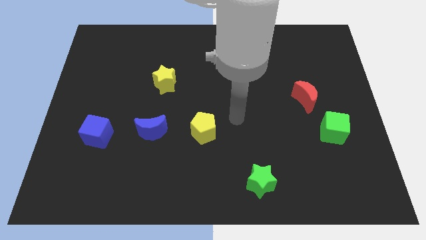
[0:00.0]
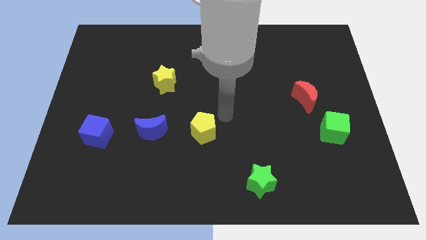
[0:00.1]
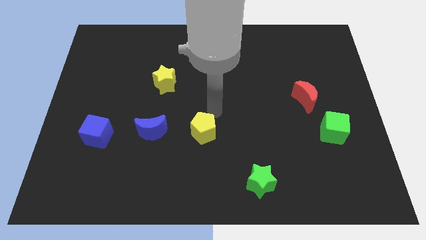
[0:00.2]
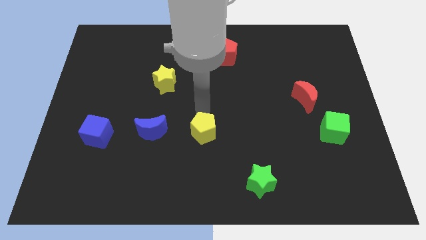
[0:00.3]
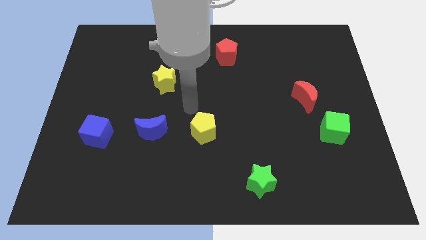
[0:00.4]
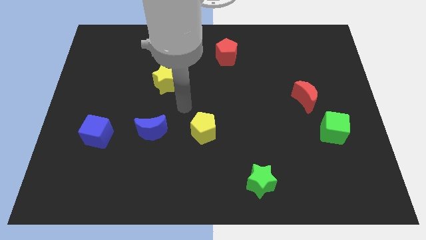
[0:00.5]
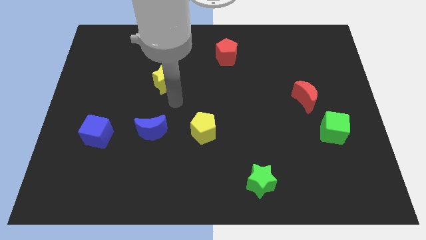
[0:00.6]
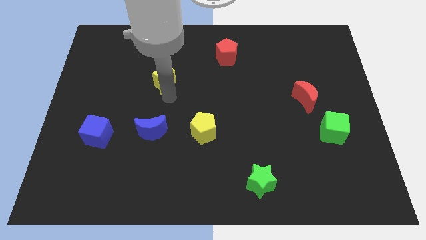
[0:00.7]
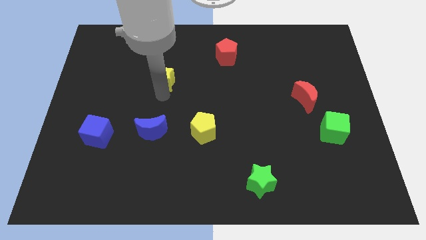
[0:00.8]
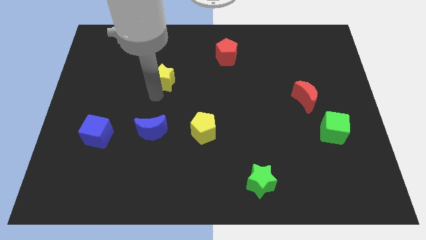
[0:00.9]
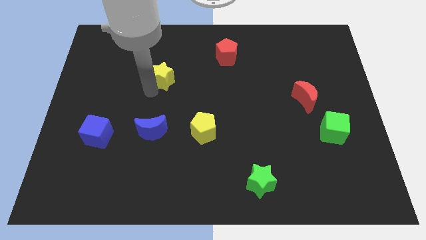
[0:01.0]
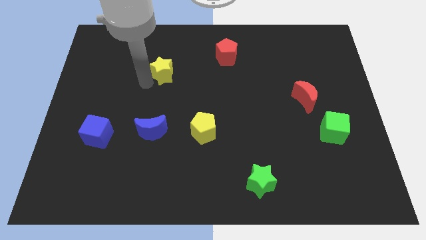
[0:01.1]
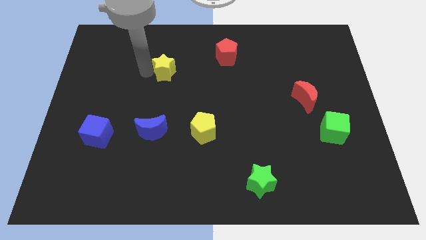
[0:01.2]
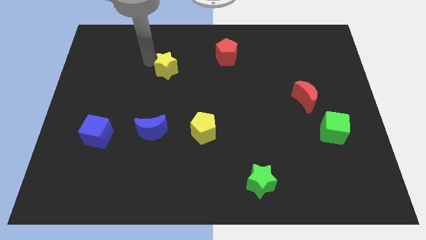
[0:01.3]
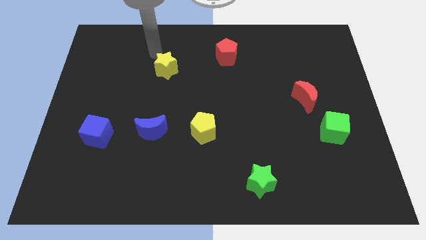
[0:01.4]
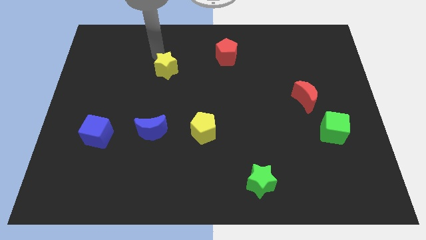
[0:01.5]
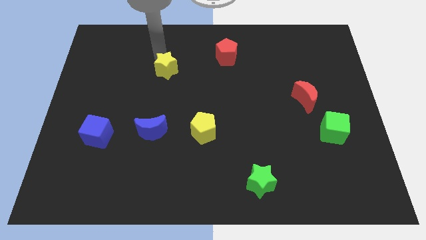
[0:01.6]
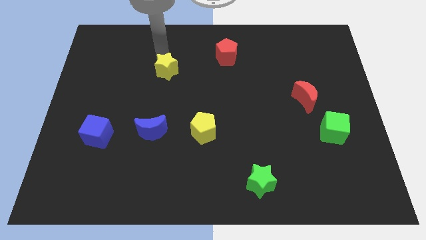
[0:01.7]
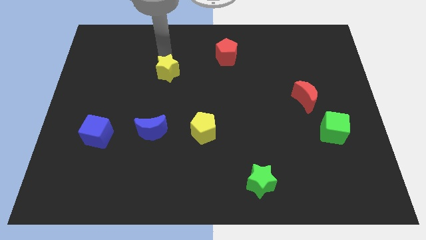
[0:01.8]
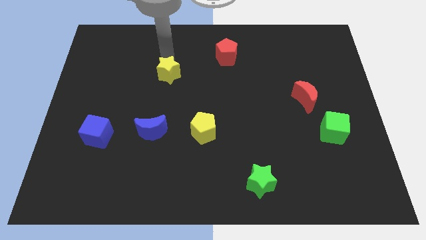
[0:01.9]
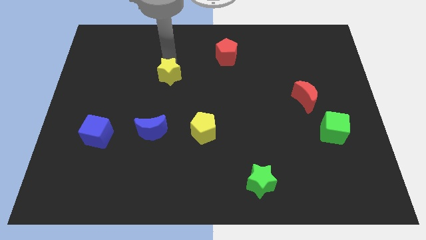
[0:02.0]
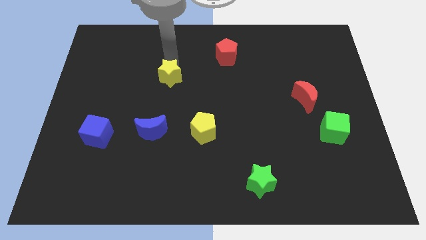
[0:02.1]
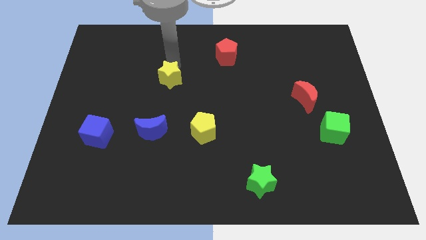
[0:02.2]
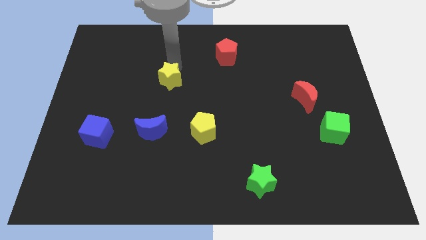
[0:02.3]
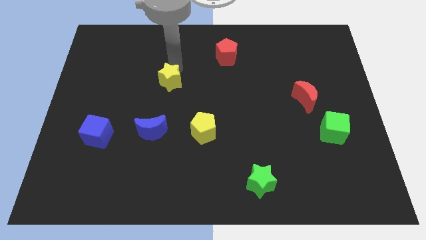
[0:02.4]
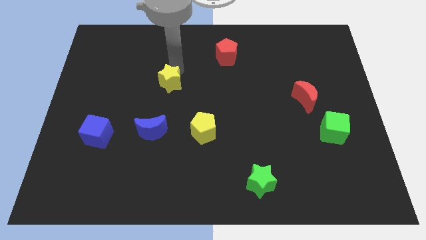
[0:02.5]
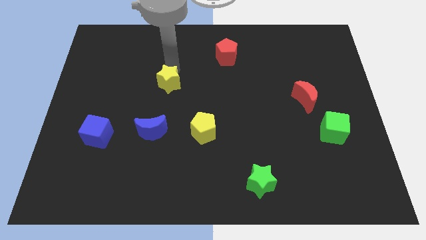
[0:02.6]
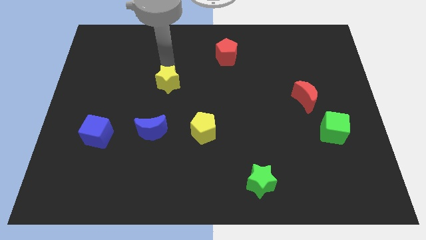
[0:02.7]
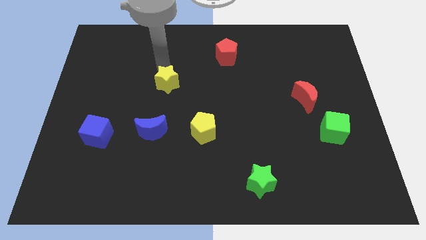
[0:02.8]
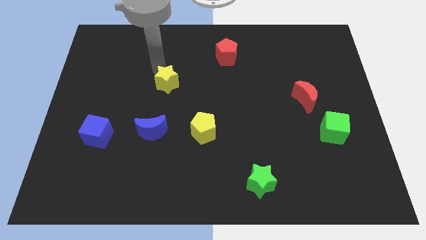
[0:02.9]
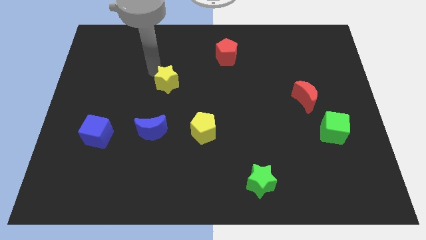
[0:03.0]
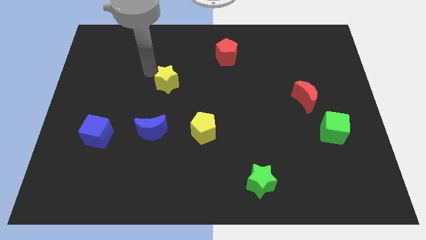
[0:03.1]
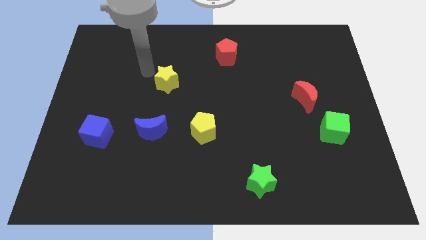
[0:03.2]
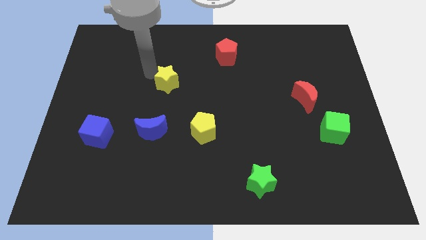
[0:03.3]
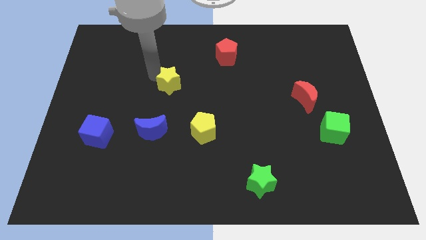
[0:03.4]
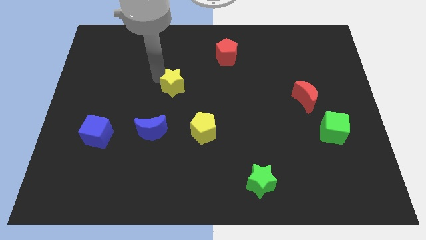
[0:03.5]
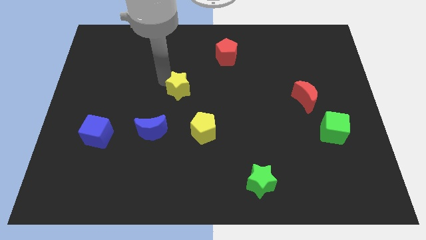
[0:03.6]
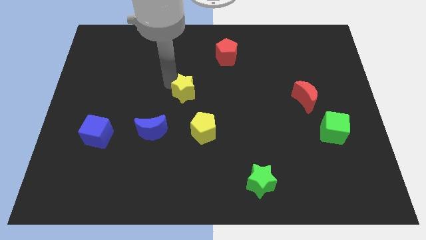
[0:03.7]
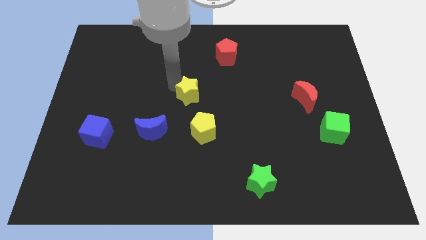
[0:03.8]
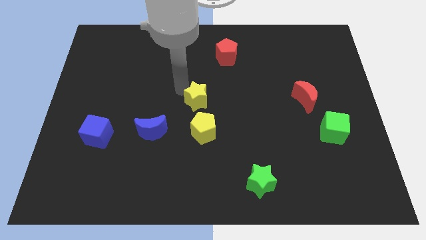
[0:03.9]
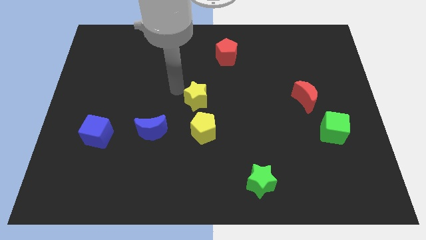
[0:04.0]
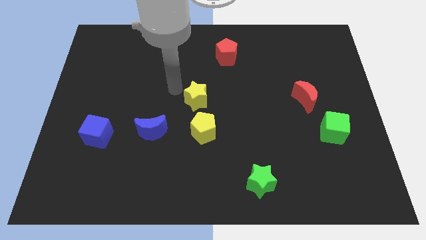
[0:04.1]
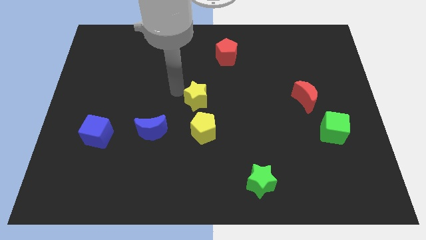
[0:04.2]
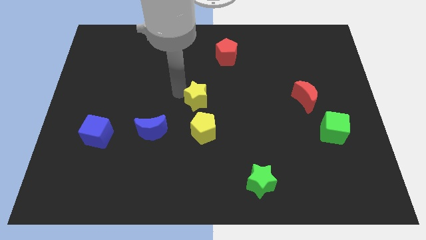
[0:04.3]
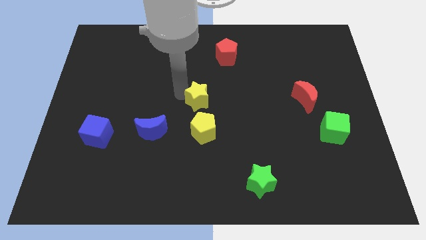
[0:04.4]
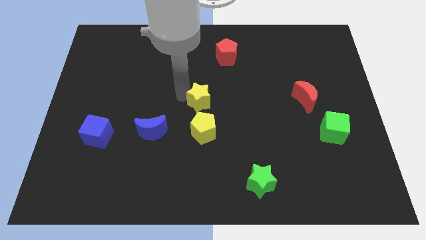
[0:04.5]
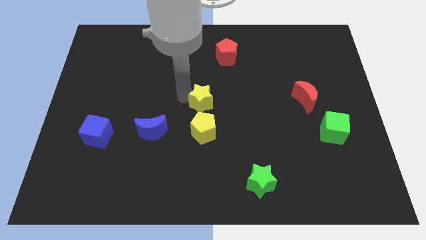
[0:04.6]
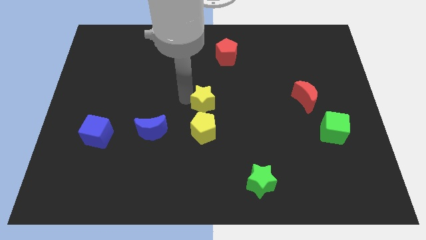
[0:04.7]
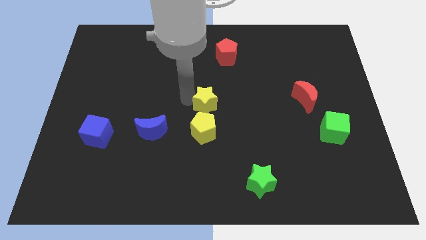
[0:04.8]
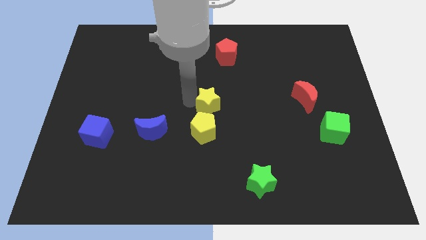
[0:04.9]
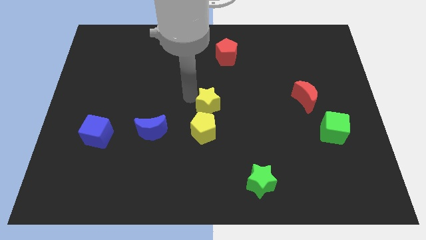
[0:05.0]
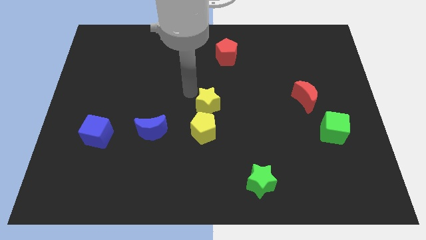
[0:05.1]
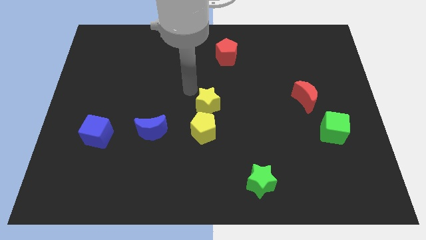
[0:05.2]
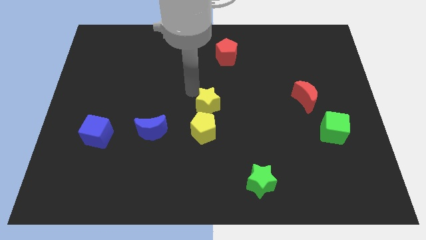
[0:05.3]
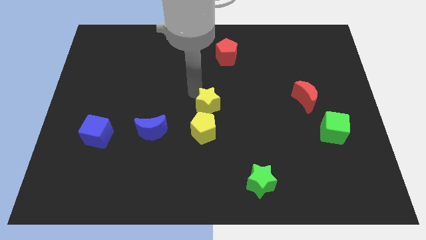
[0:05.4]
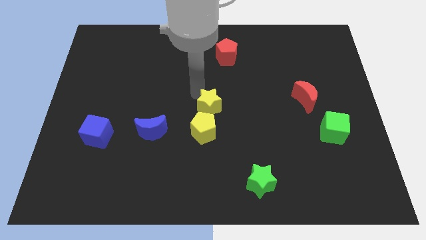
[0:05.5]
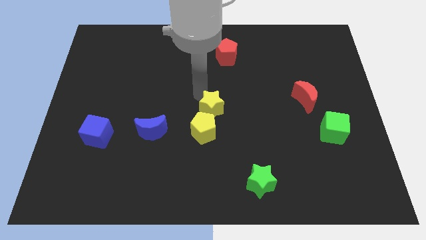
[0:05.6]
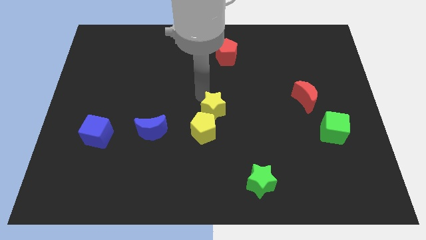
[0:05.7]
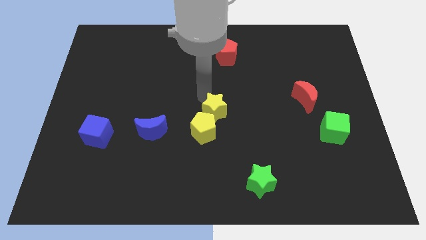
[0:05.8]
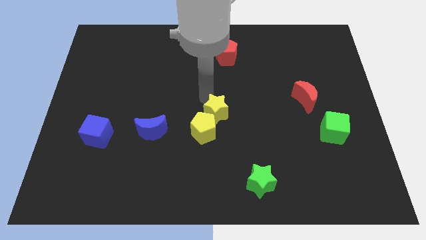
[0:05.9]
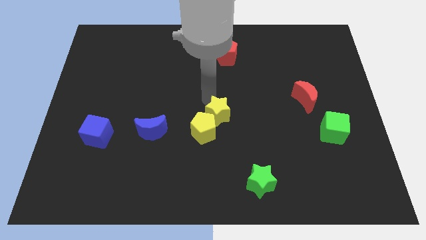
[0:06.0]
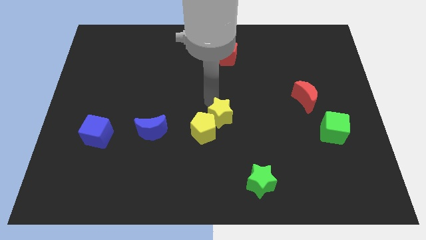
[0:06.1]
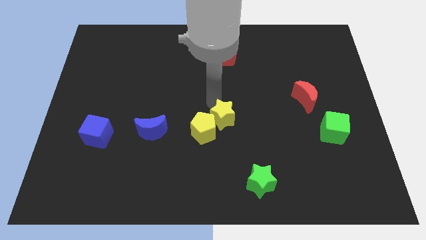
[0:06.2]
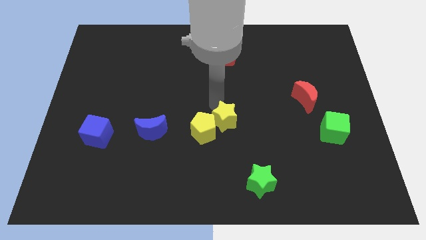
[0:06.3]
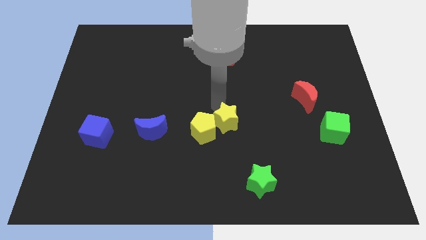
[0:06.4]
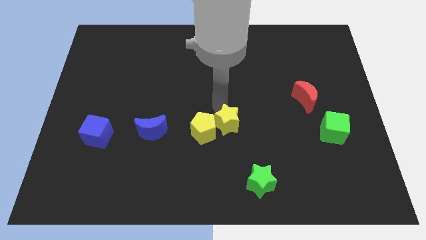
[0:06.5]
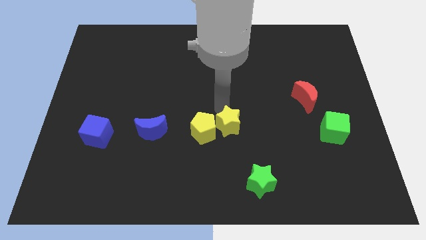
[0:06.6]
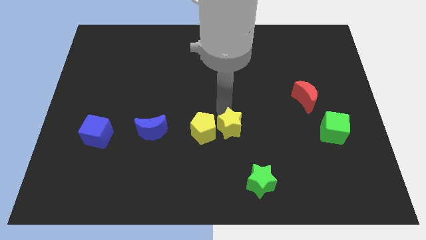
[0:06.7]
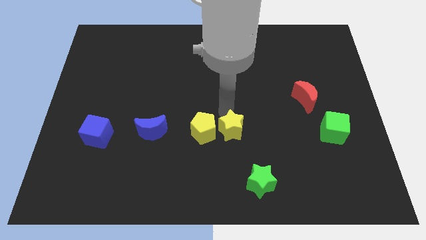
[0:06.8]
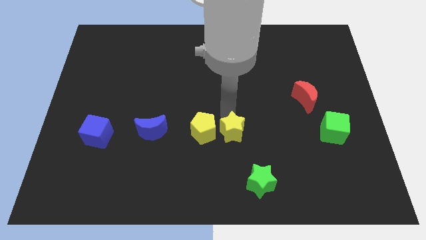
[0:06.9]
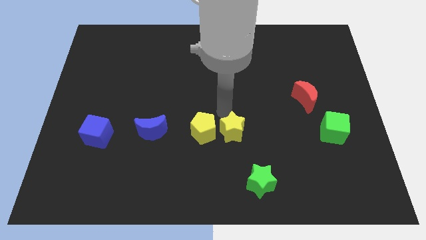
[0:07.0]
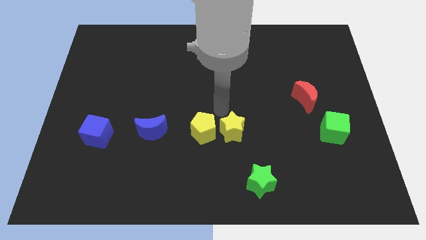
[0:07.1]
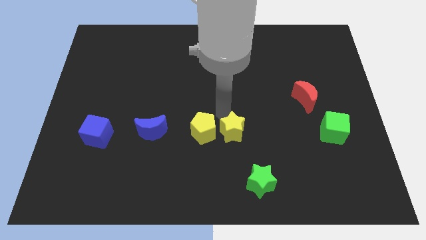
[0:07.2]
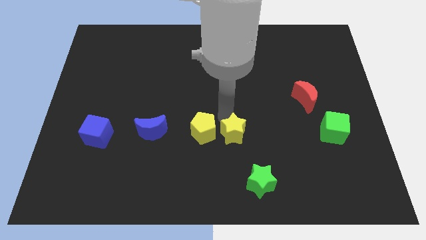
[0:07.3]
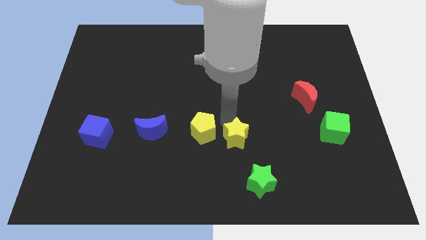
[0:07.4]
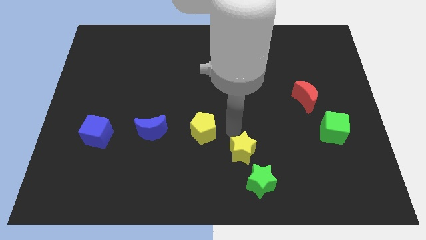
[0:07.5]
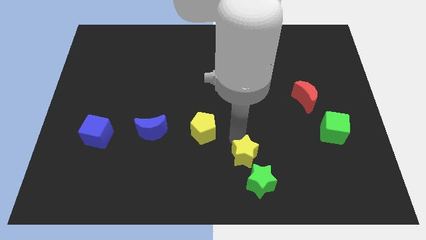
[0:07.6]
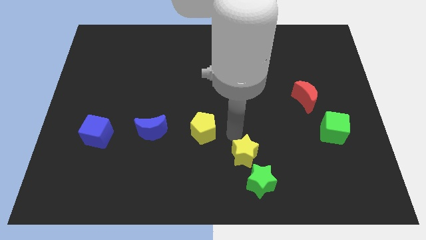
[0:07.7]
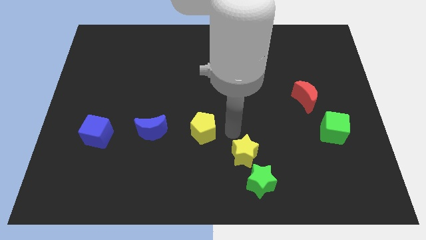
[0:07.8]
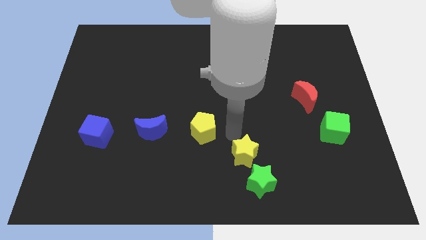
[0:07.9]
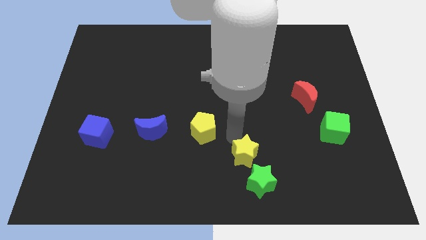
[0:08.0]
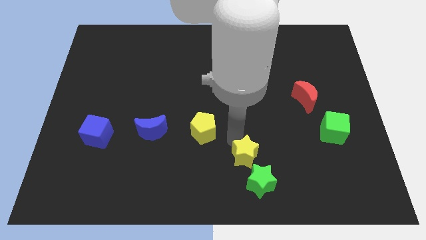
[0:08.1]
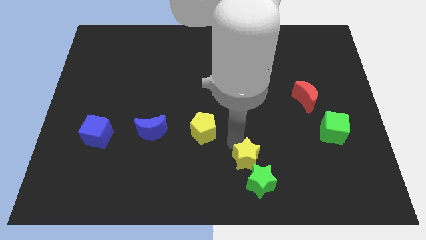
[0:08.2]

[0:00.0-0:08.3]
move the yellow star towards the green star
